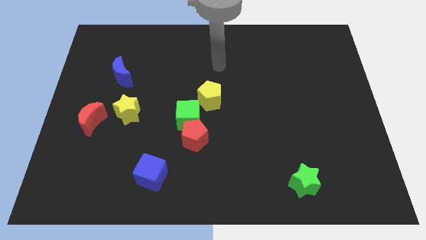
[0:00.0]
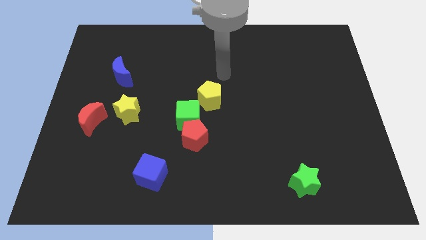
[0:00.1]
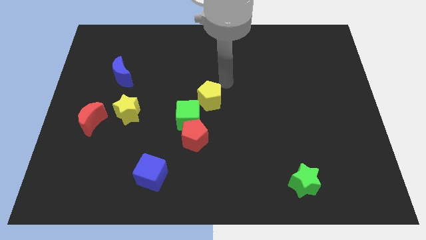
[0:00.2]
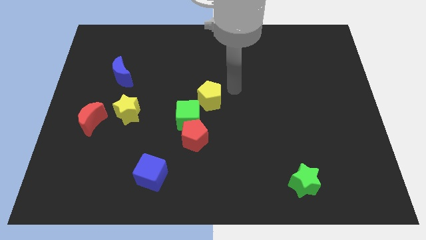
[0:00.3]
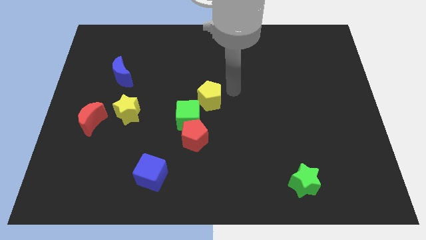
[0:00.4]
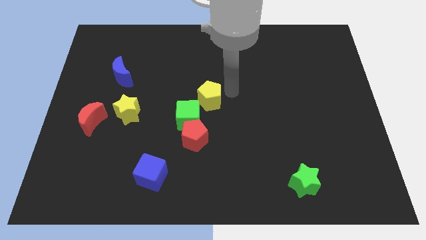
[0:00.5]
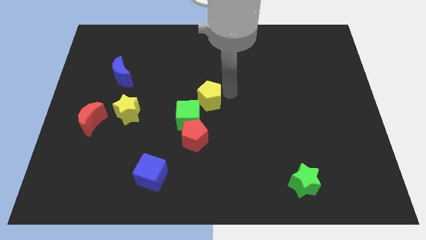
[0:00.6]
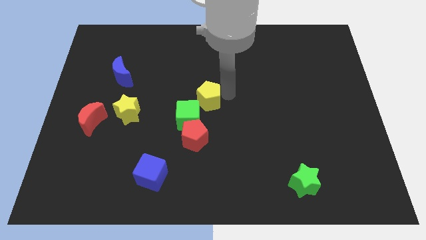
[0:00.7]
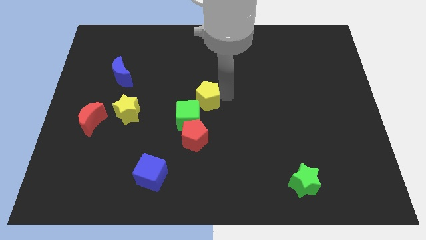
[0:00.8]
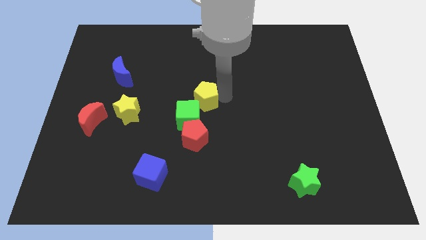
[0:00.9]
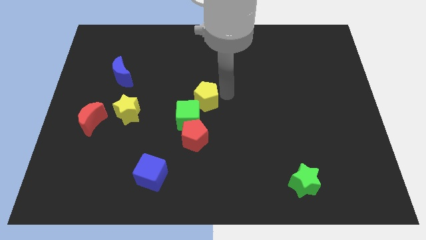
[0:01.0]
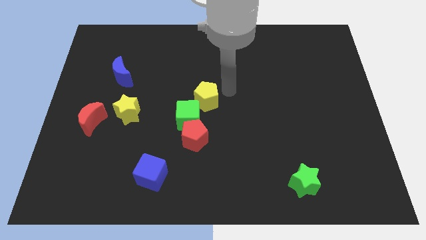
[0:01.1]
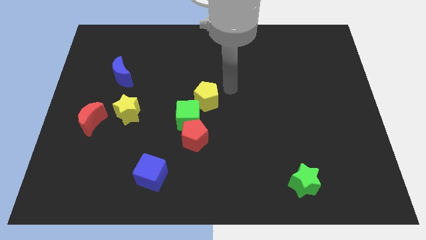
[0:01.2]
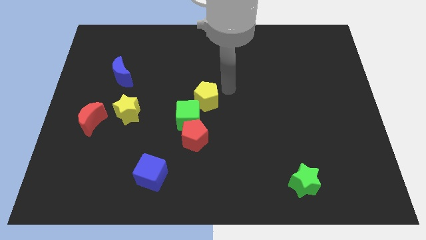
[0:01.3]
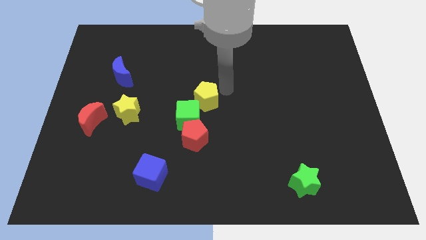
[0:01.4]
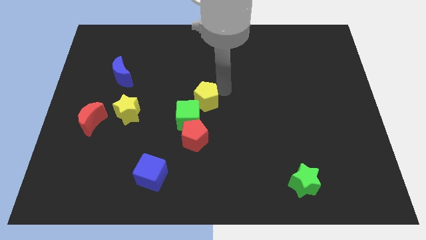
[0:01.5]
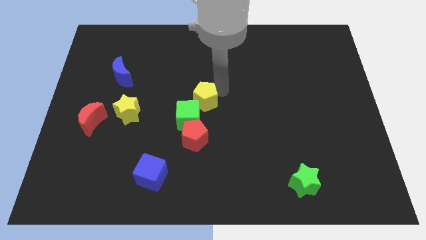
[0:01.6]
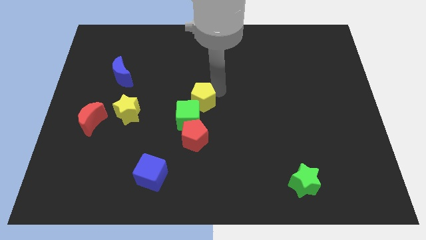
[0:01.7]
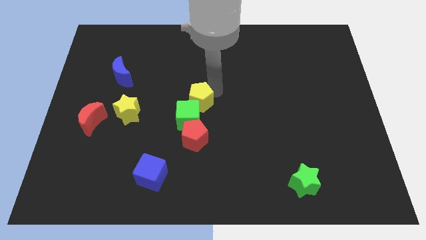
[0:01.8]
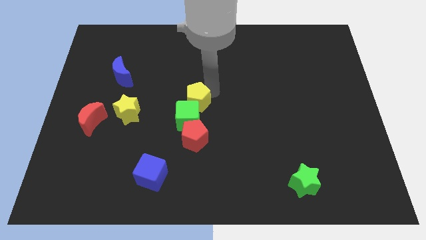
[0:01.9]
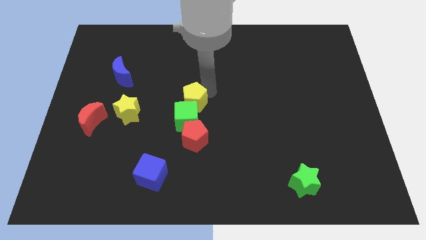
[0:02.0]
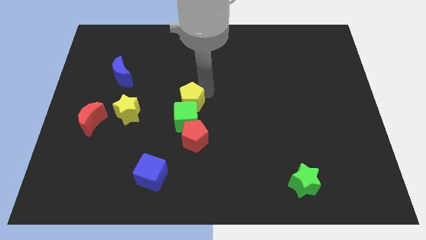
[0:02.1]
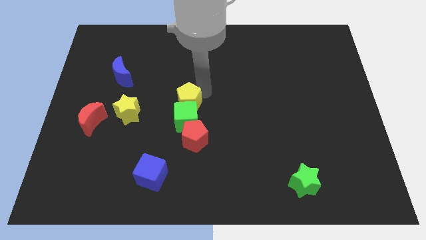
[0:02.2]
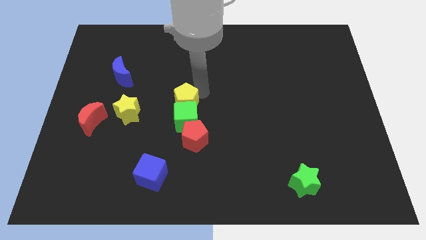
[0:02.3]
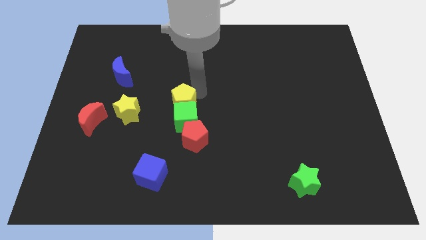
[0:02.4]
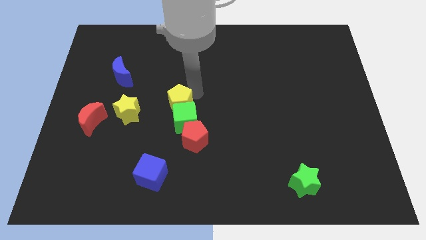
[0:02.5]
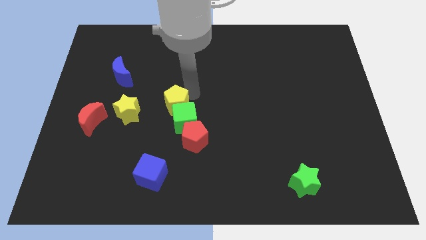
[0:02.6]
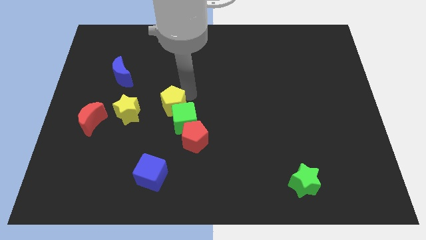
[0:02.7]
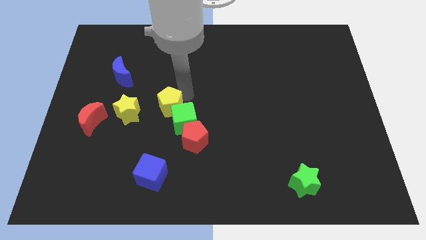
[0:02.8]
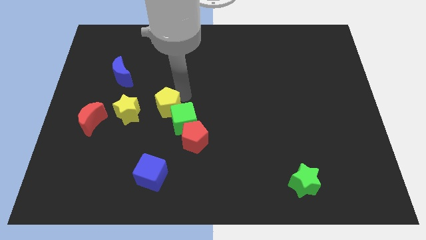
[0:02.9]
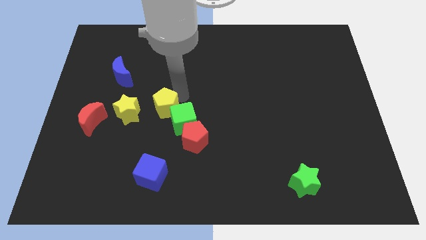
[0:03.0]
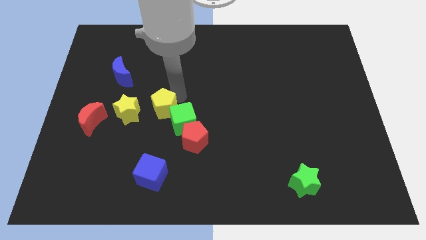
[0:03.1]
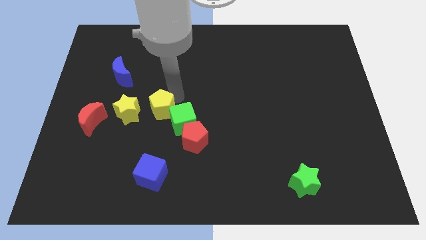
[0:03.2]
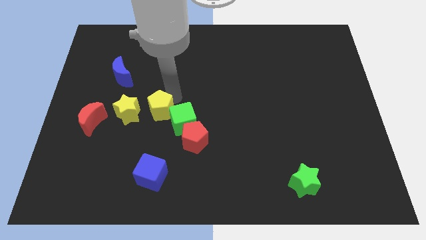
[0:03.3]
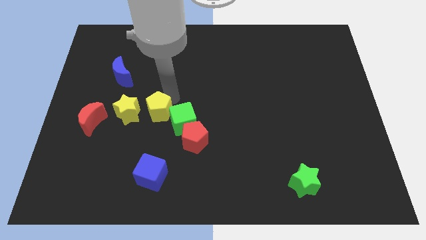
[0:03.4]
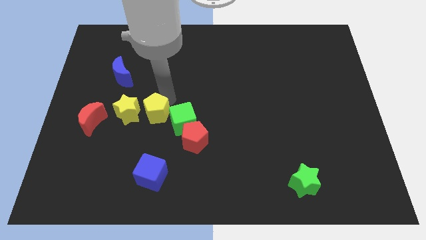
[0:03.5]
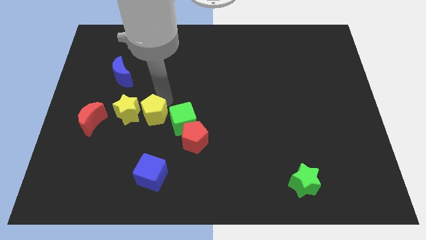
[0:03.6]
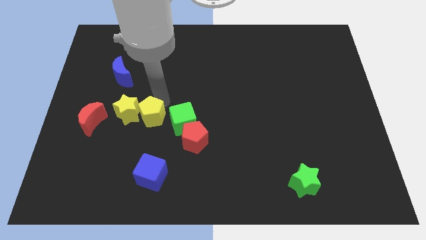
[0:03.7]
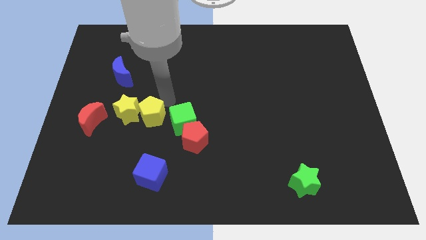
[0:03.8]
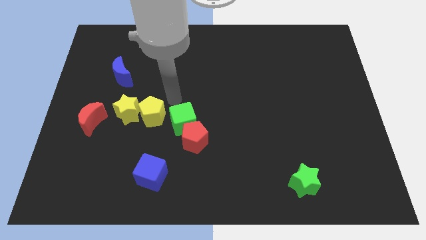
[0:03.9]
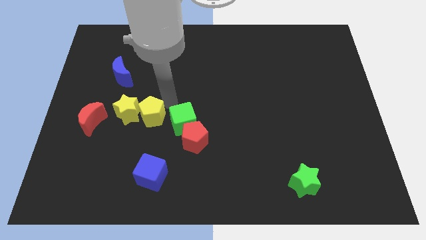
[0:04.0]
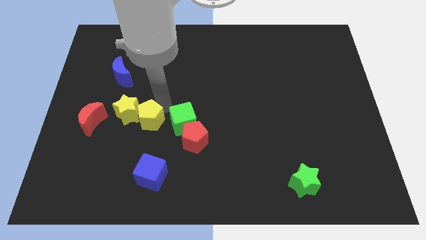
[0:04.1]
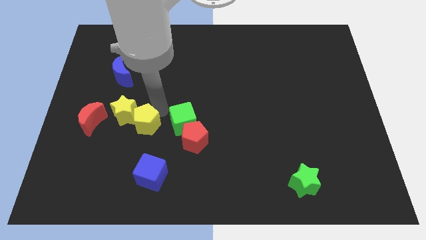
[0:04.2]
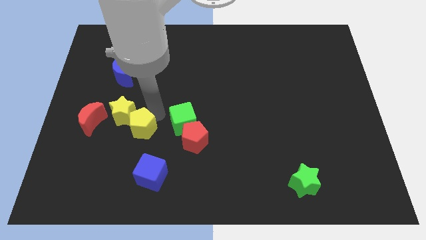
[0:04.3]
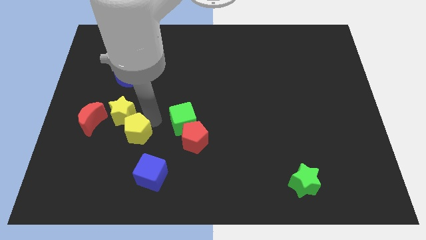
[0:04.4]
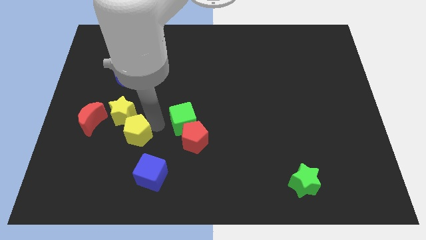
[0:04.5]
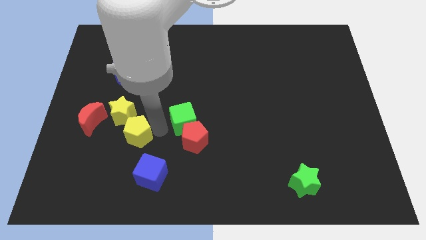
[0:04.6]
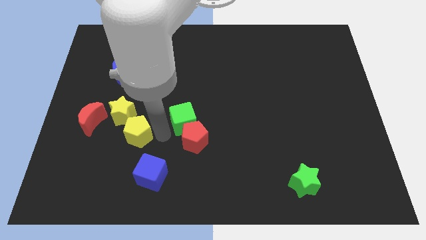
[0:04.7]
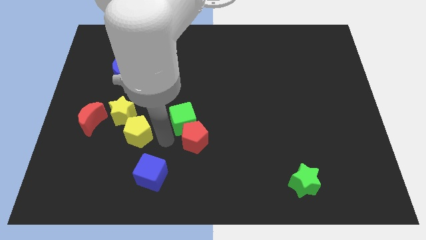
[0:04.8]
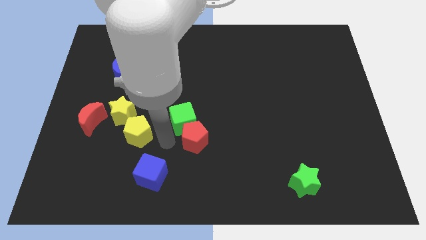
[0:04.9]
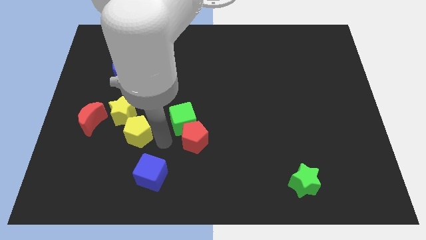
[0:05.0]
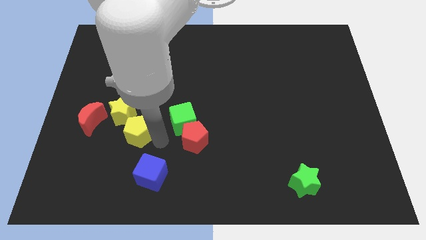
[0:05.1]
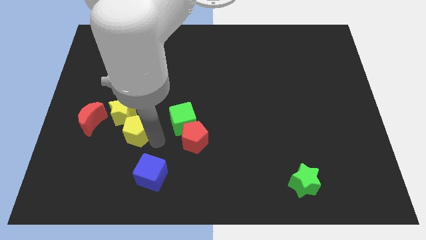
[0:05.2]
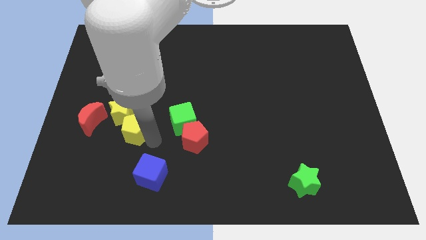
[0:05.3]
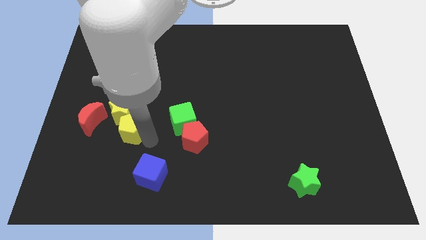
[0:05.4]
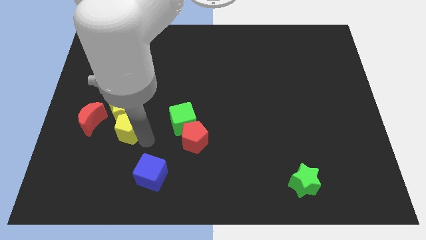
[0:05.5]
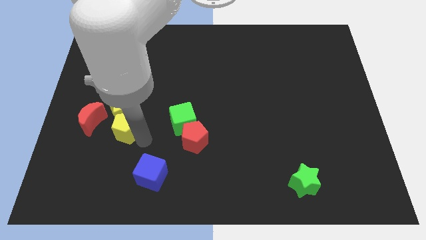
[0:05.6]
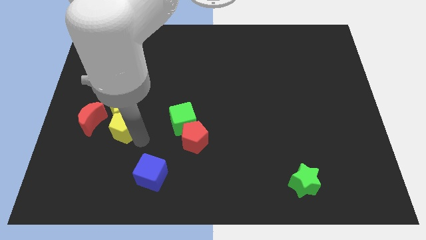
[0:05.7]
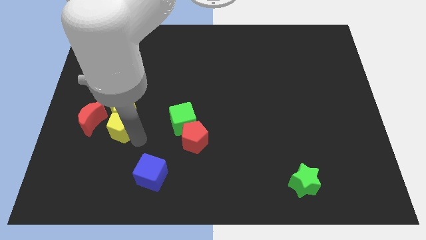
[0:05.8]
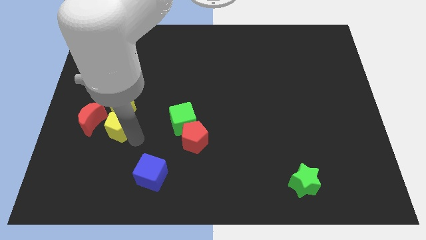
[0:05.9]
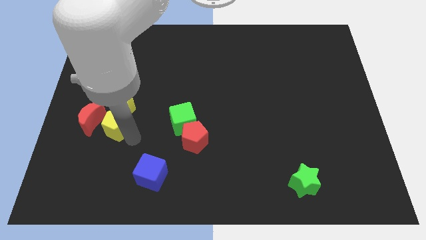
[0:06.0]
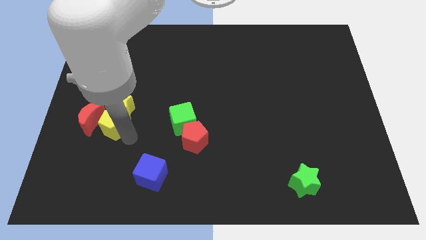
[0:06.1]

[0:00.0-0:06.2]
put the yellow pentagon towards the red moon

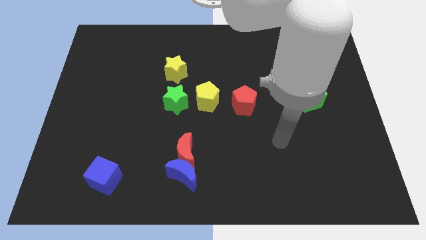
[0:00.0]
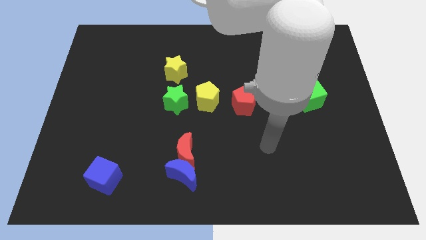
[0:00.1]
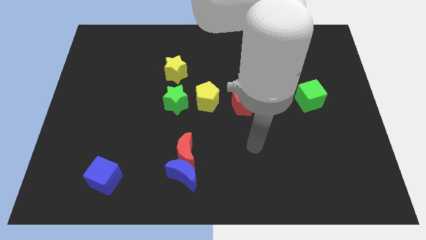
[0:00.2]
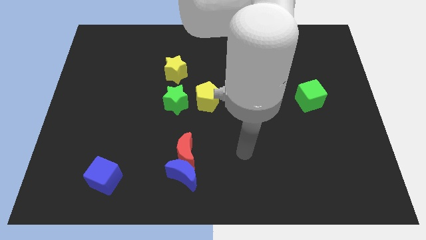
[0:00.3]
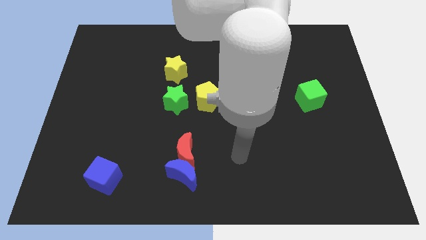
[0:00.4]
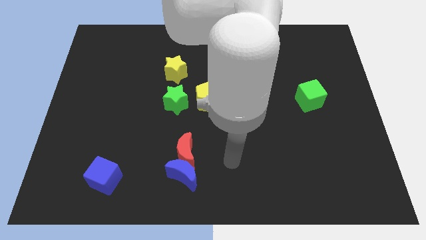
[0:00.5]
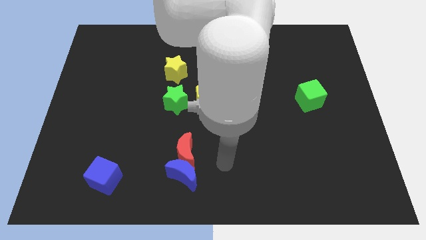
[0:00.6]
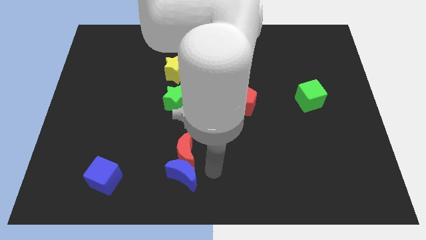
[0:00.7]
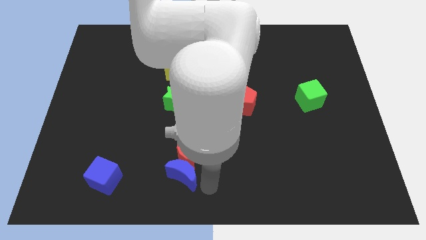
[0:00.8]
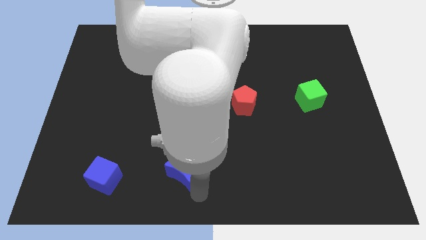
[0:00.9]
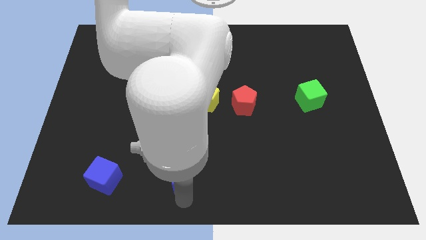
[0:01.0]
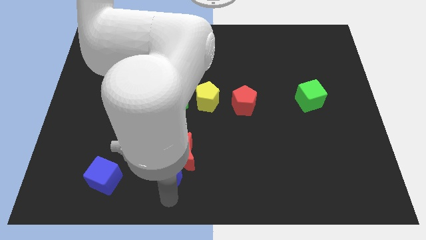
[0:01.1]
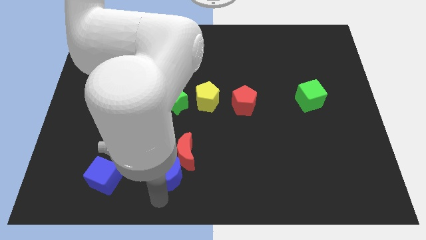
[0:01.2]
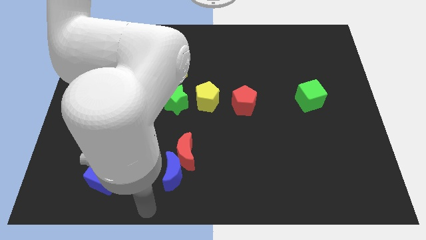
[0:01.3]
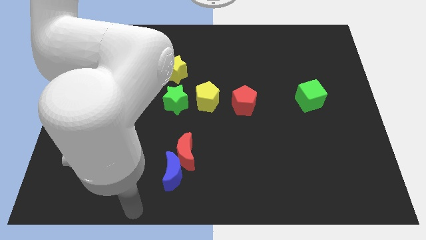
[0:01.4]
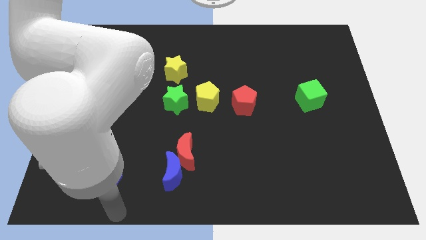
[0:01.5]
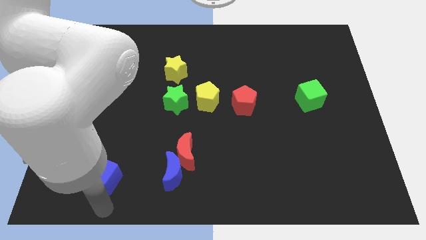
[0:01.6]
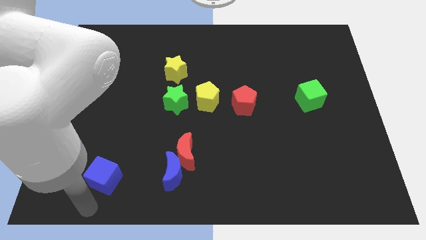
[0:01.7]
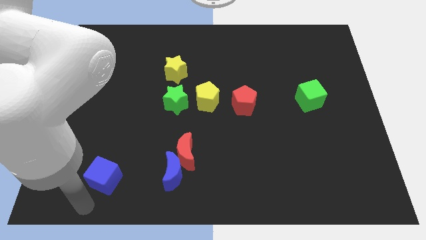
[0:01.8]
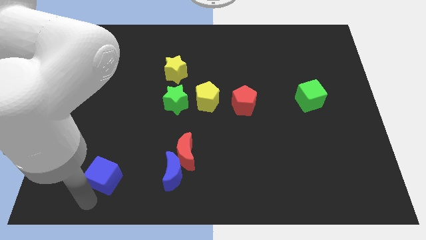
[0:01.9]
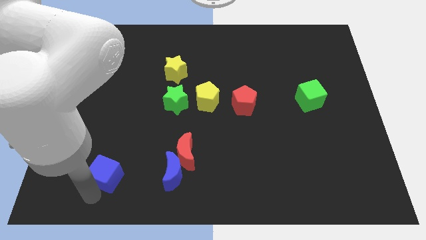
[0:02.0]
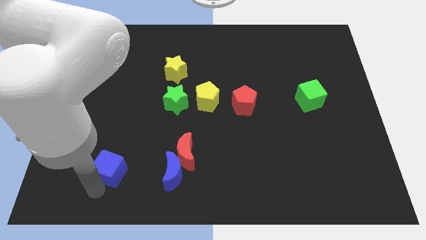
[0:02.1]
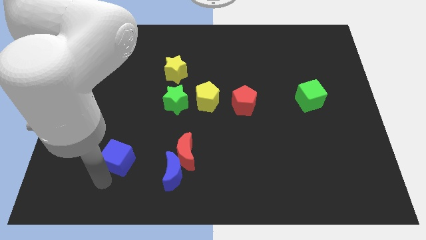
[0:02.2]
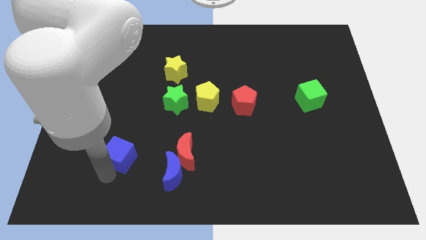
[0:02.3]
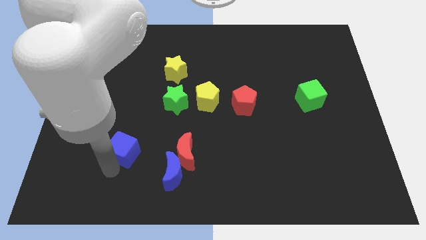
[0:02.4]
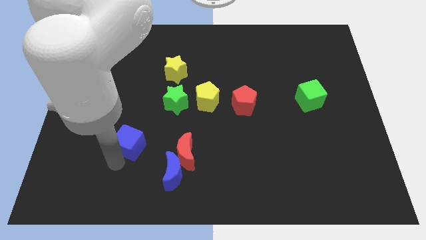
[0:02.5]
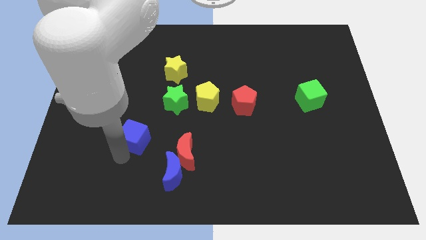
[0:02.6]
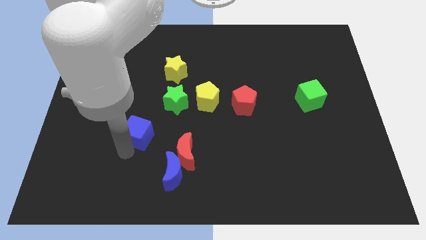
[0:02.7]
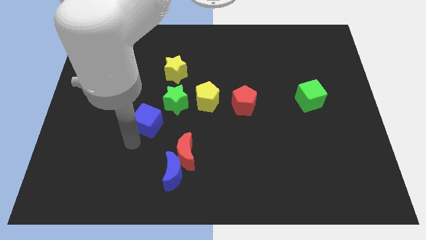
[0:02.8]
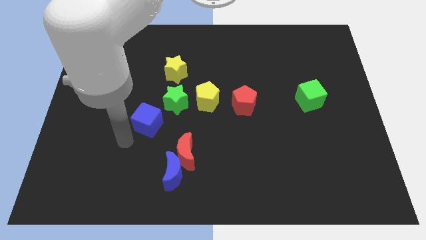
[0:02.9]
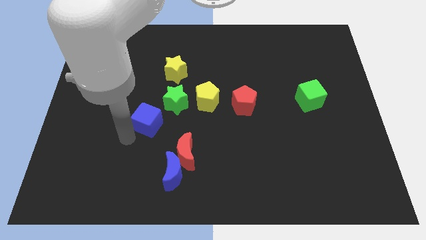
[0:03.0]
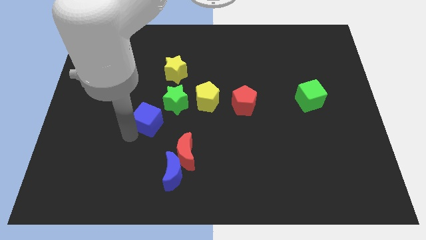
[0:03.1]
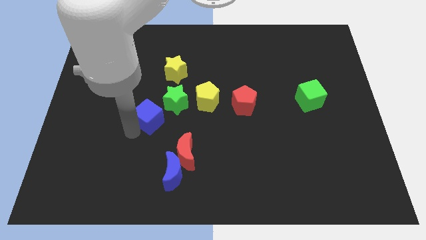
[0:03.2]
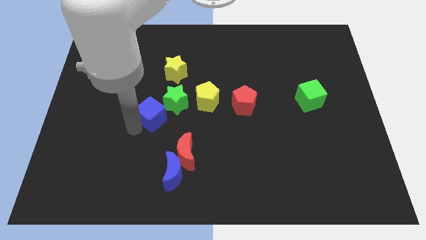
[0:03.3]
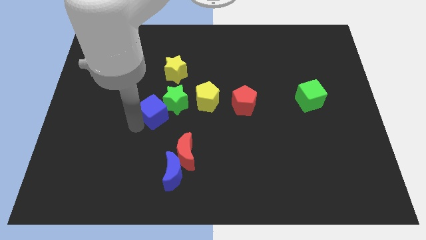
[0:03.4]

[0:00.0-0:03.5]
push the blue cube close to the green star
